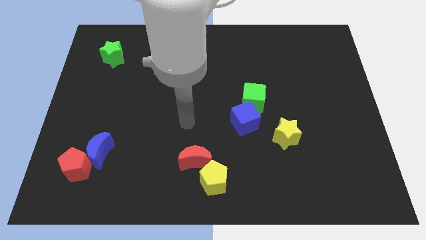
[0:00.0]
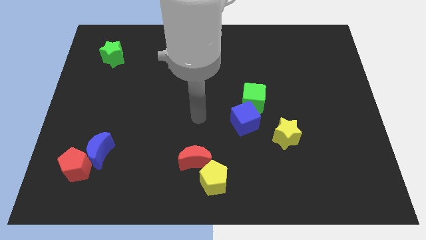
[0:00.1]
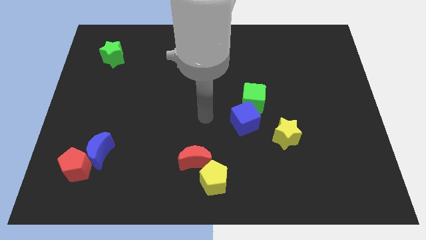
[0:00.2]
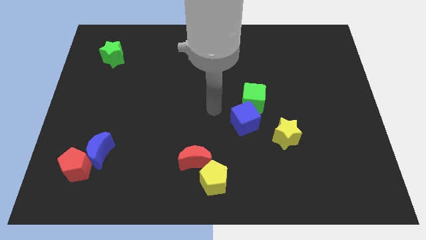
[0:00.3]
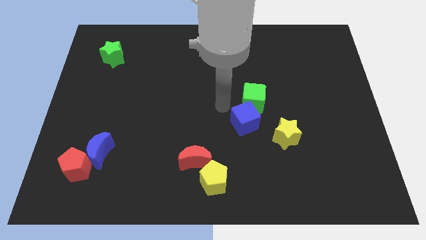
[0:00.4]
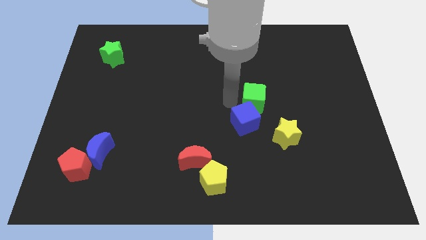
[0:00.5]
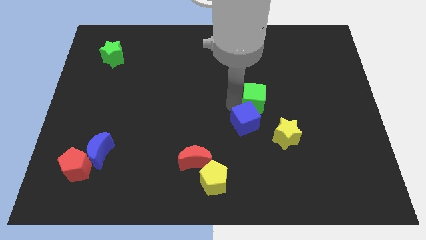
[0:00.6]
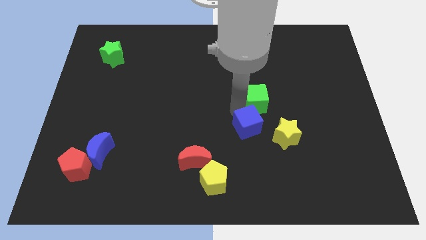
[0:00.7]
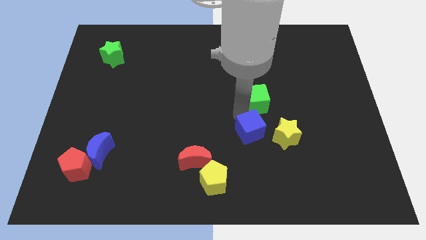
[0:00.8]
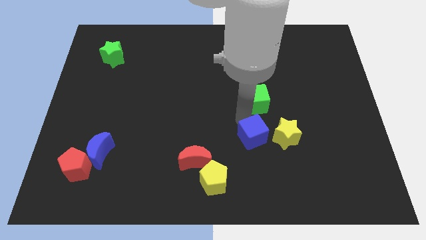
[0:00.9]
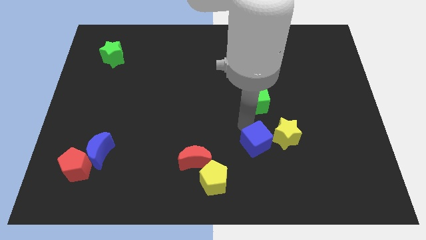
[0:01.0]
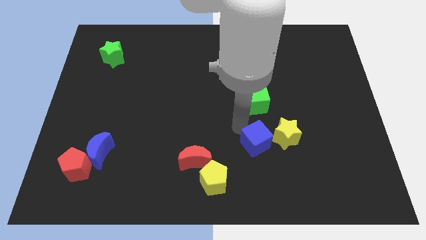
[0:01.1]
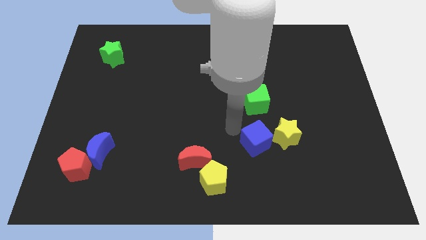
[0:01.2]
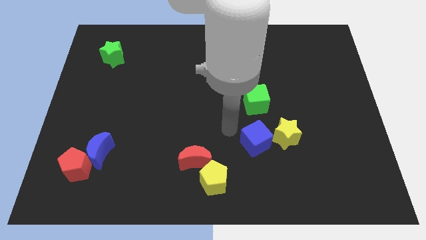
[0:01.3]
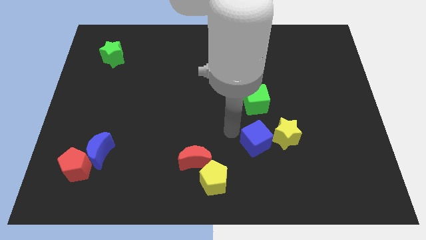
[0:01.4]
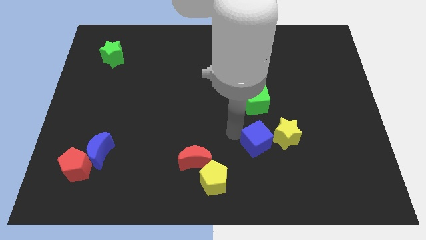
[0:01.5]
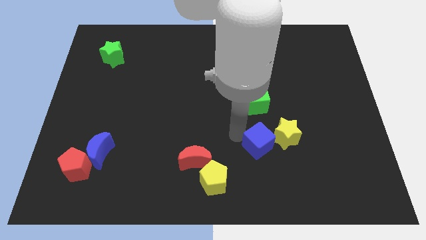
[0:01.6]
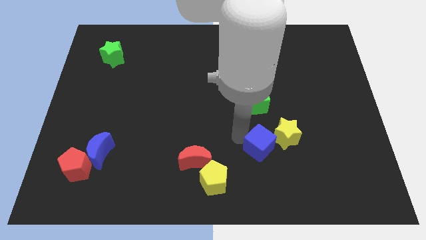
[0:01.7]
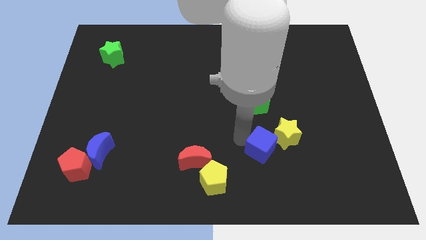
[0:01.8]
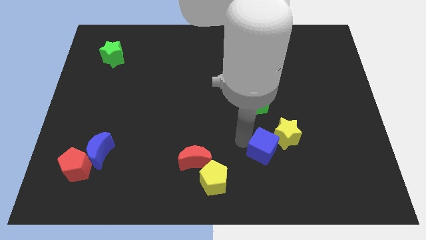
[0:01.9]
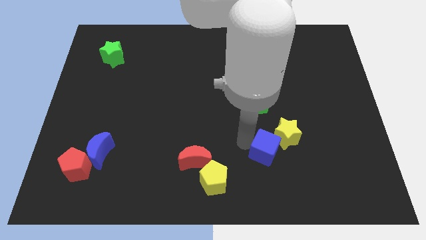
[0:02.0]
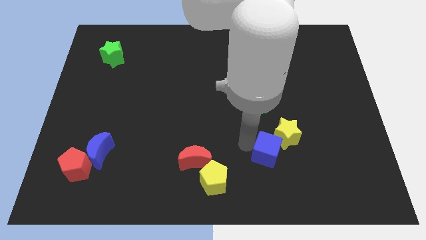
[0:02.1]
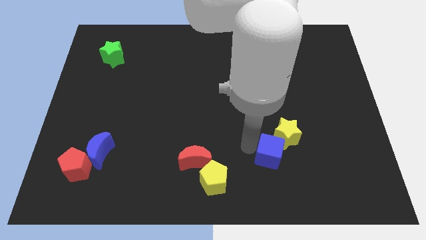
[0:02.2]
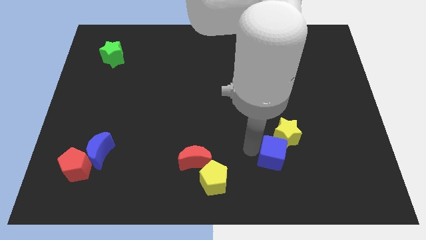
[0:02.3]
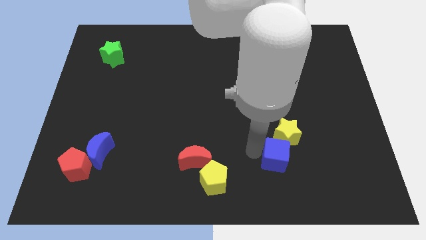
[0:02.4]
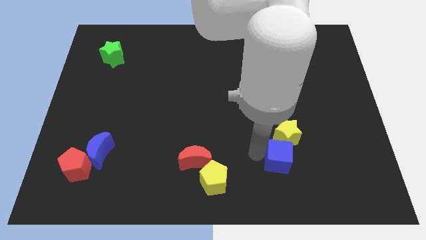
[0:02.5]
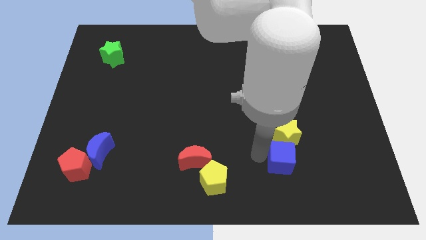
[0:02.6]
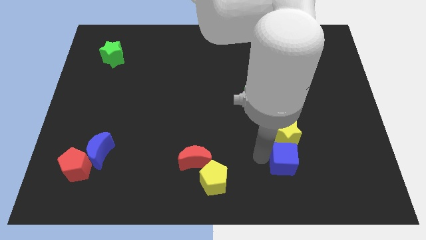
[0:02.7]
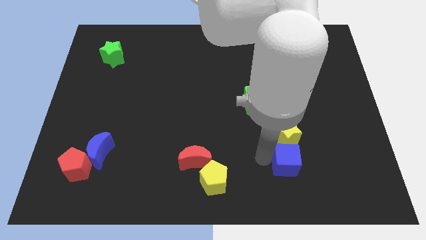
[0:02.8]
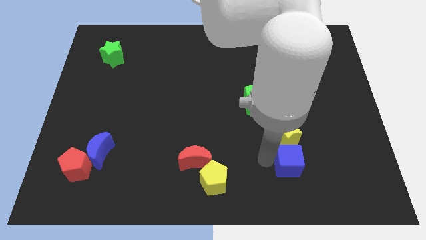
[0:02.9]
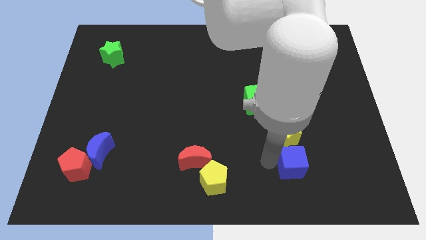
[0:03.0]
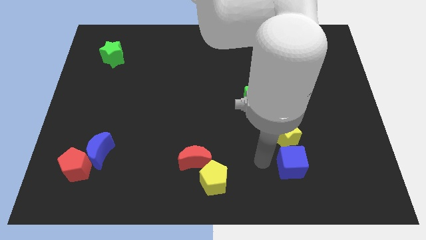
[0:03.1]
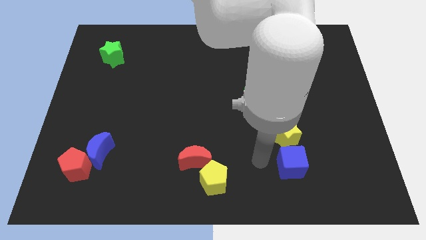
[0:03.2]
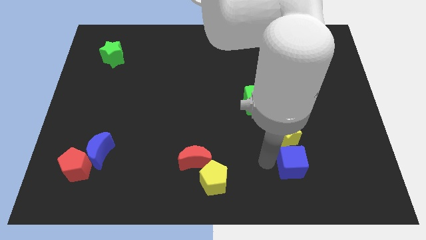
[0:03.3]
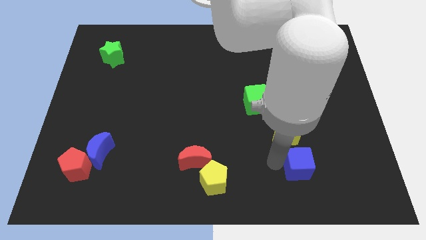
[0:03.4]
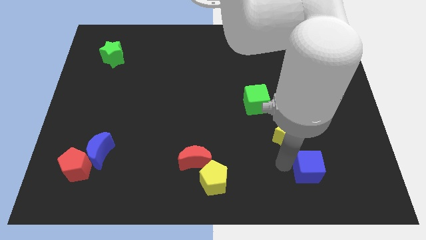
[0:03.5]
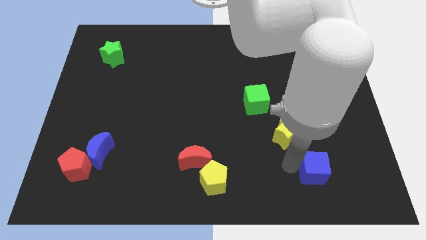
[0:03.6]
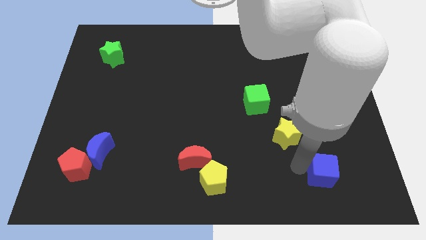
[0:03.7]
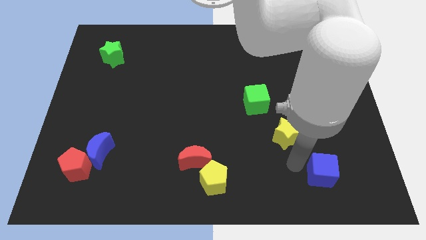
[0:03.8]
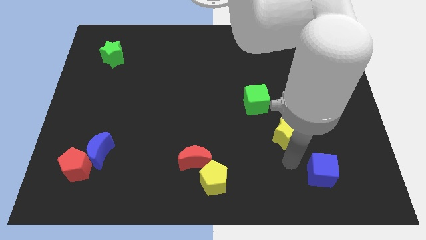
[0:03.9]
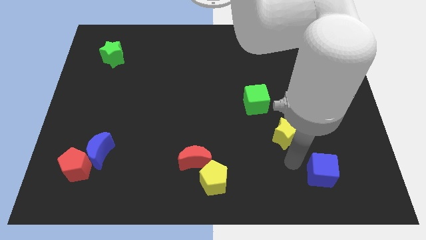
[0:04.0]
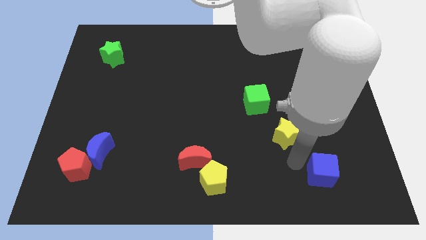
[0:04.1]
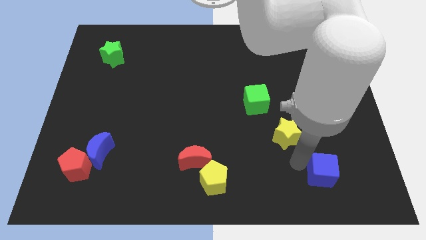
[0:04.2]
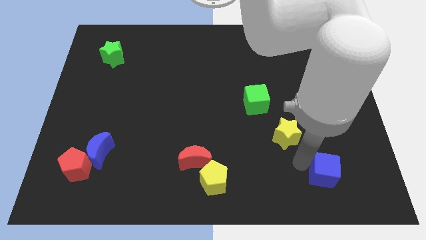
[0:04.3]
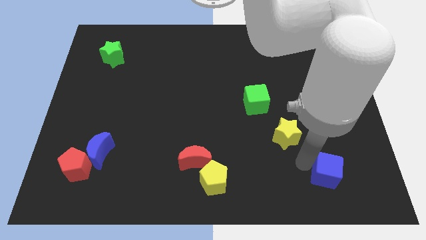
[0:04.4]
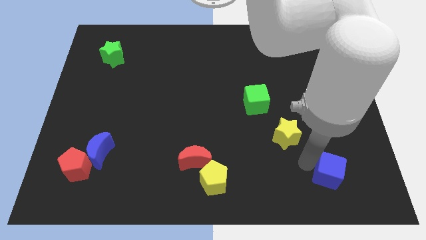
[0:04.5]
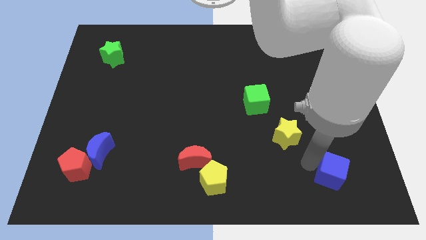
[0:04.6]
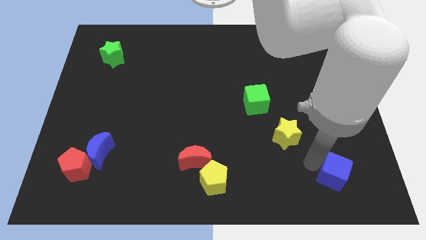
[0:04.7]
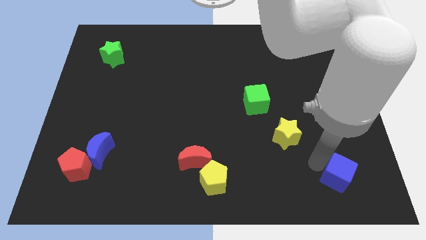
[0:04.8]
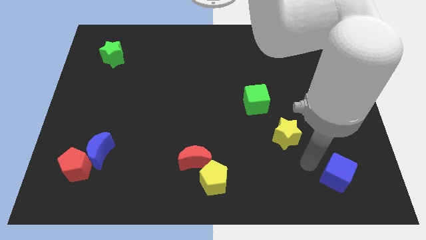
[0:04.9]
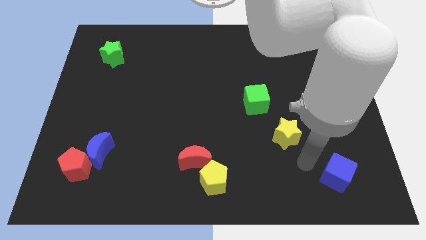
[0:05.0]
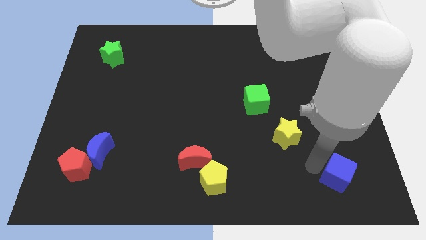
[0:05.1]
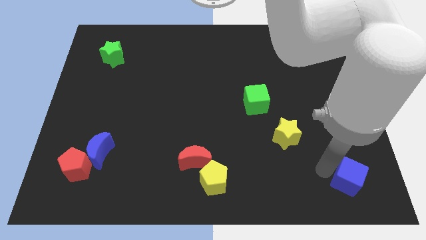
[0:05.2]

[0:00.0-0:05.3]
move the blue cube to the bottom right

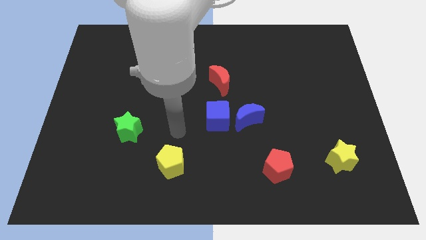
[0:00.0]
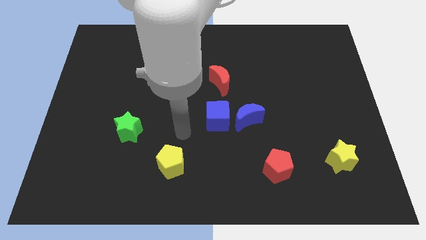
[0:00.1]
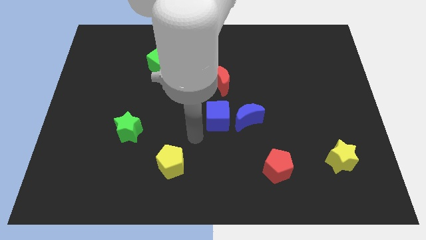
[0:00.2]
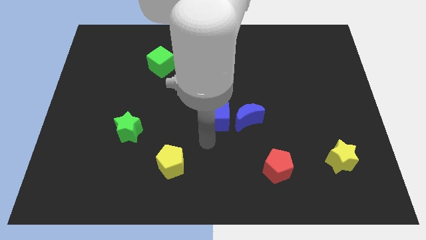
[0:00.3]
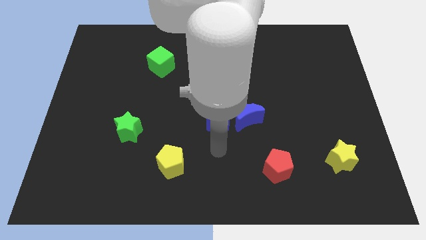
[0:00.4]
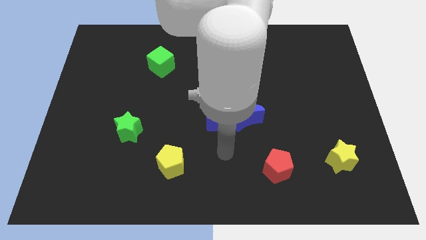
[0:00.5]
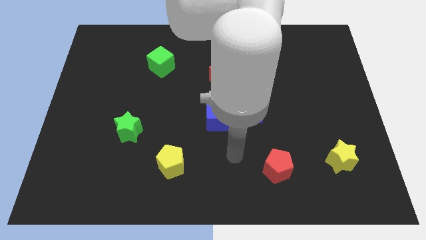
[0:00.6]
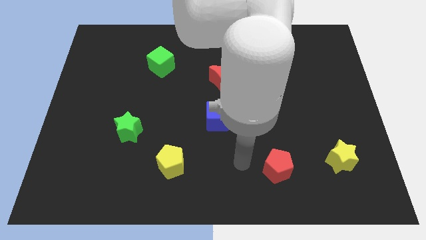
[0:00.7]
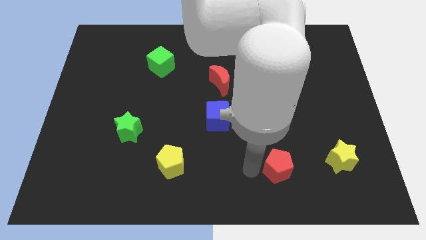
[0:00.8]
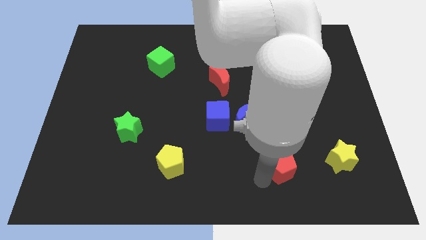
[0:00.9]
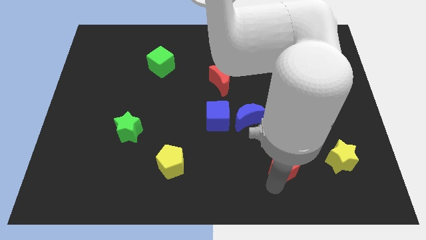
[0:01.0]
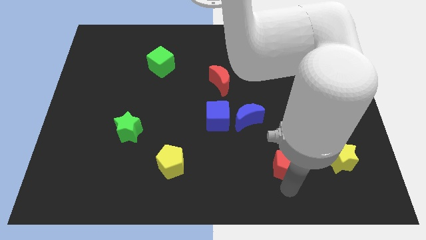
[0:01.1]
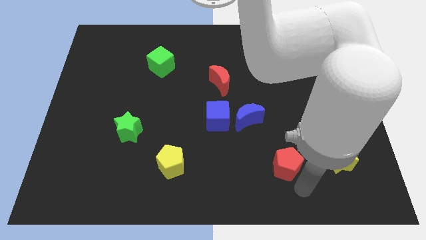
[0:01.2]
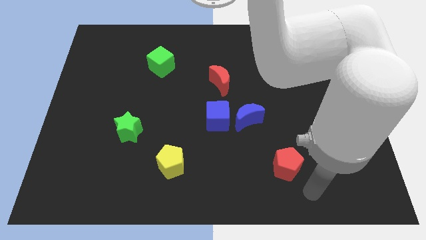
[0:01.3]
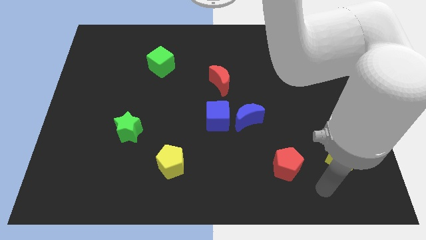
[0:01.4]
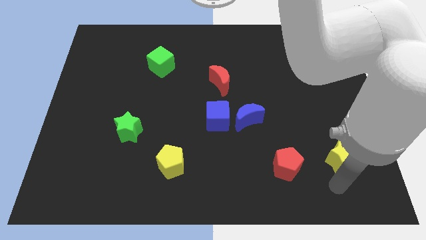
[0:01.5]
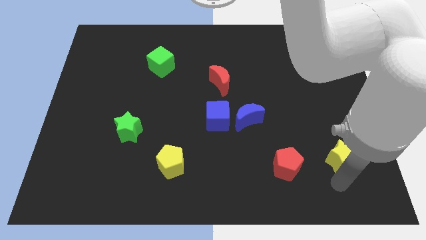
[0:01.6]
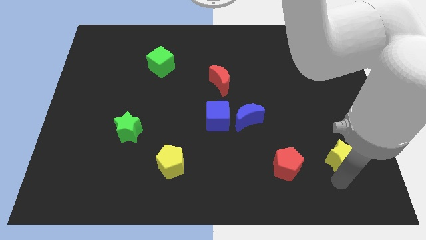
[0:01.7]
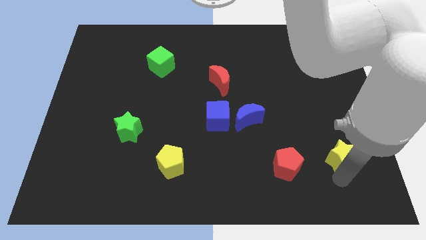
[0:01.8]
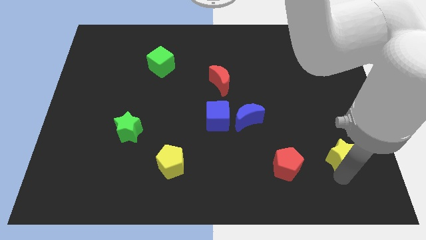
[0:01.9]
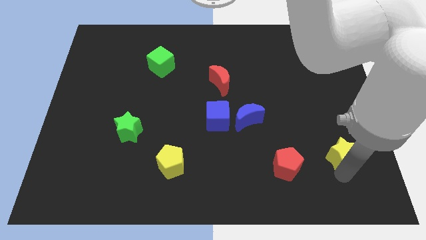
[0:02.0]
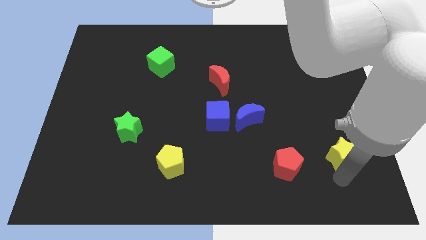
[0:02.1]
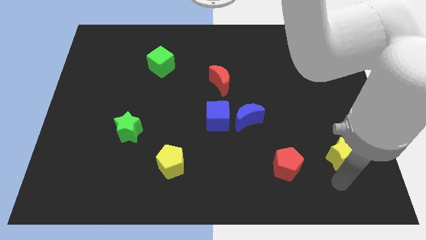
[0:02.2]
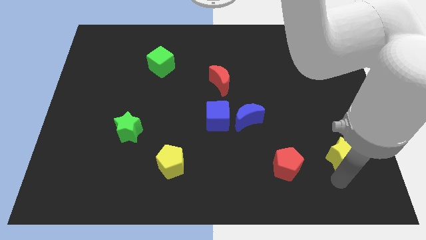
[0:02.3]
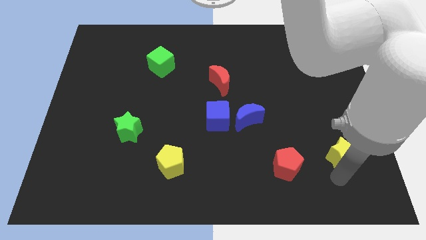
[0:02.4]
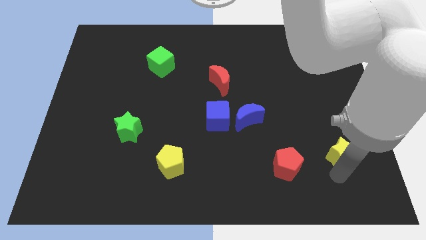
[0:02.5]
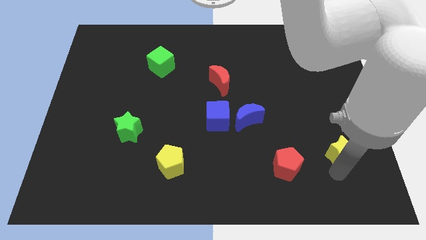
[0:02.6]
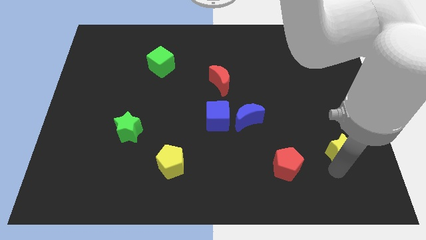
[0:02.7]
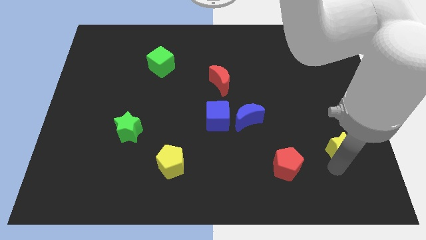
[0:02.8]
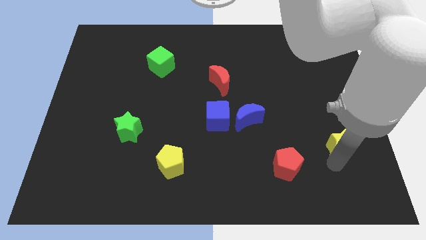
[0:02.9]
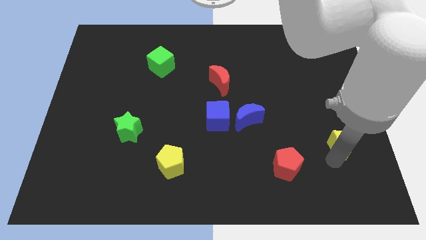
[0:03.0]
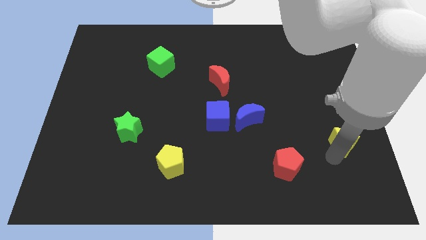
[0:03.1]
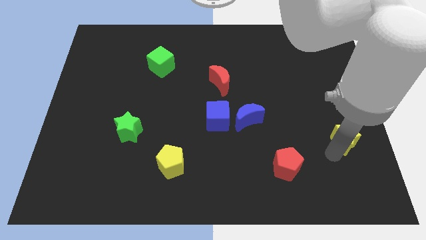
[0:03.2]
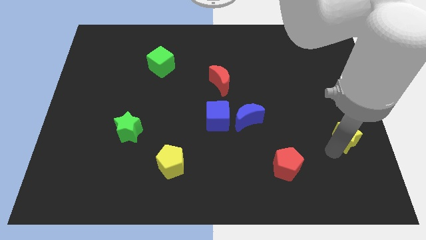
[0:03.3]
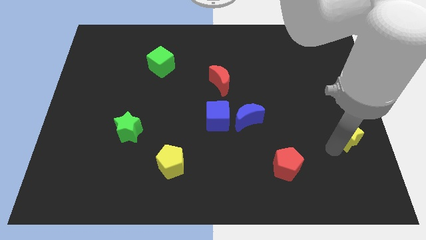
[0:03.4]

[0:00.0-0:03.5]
slide the yellow star to the right side
